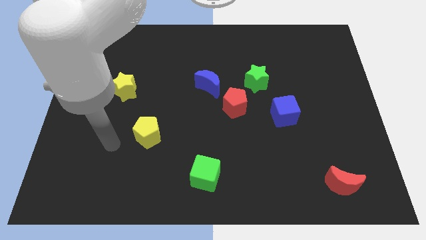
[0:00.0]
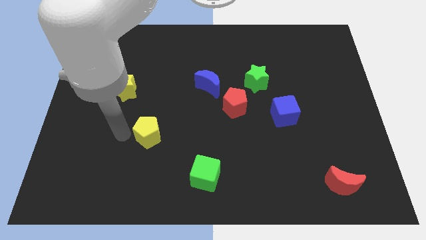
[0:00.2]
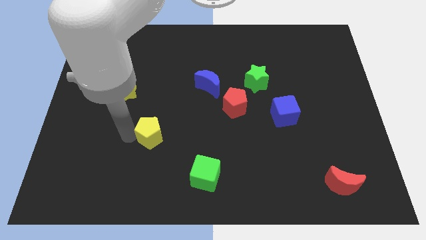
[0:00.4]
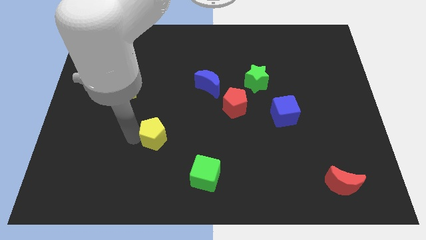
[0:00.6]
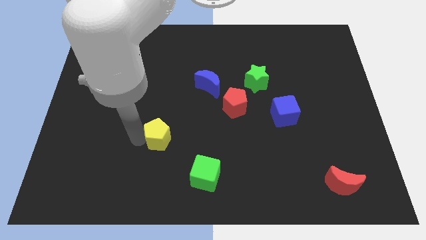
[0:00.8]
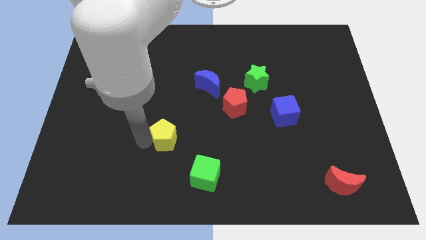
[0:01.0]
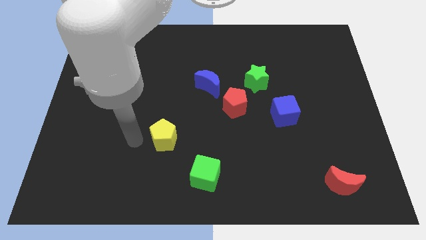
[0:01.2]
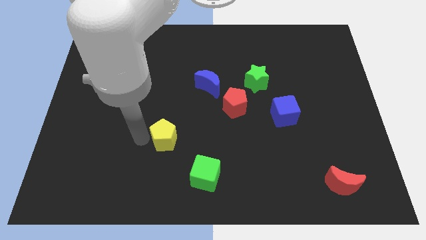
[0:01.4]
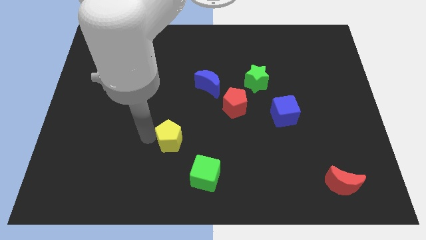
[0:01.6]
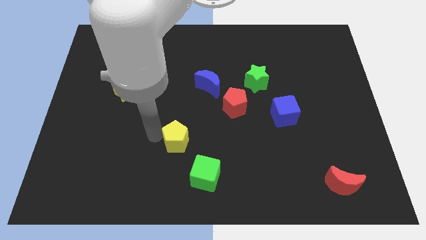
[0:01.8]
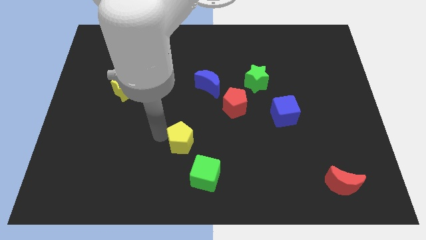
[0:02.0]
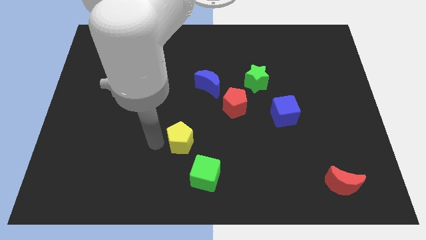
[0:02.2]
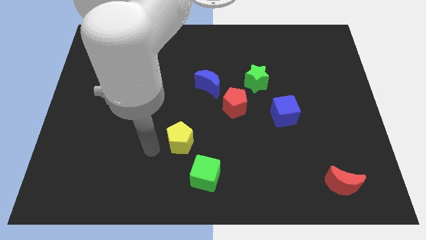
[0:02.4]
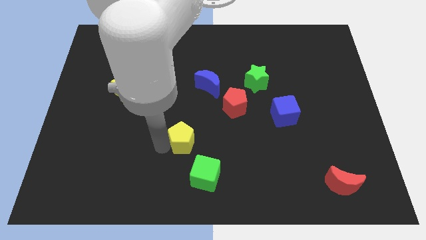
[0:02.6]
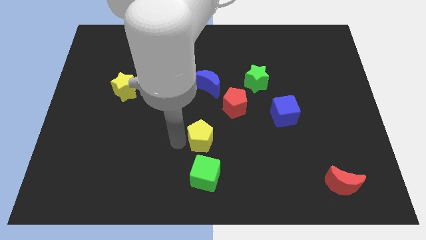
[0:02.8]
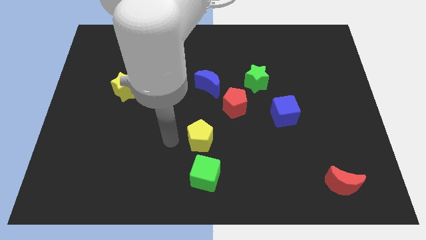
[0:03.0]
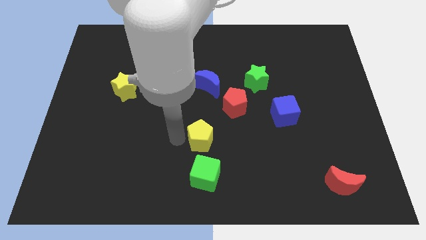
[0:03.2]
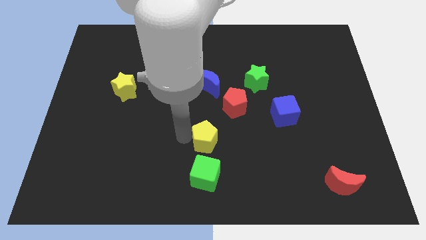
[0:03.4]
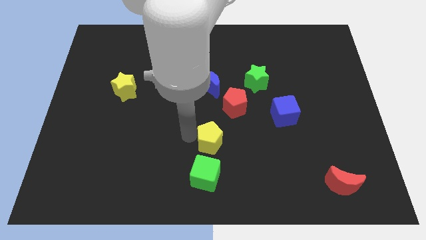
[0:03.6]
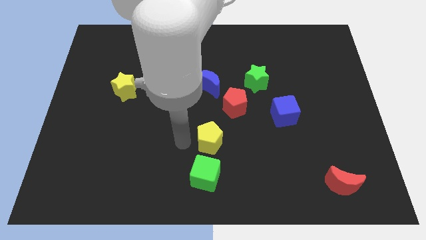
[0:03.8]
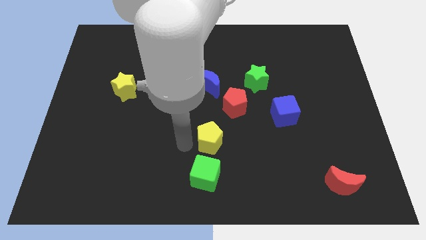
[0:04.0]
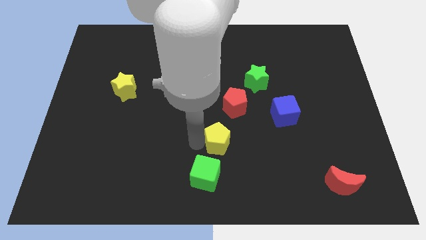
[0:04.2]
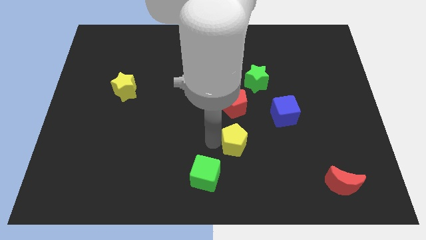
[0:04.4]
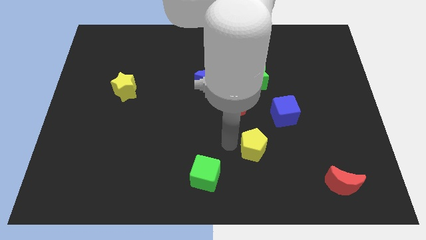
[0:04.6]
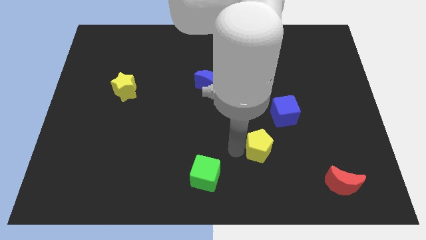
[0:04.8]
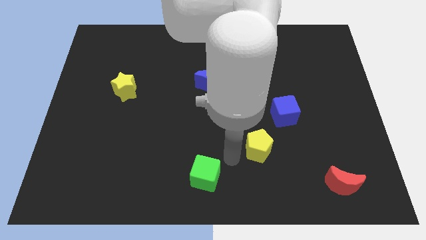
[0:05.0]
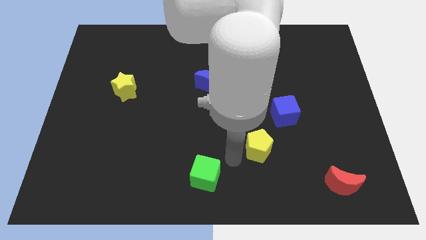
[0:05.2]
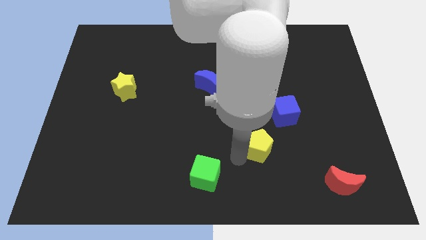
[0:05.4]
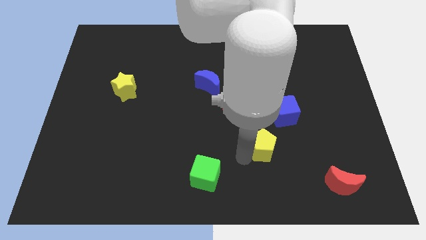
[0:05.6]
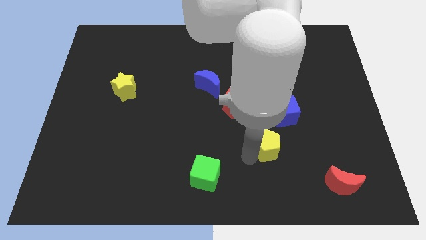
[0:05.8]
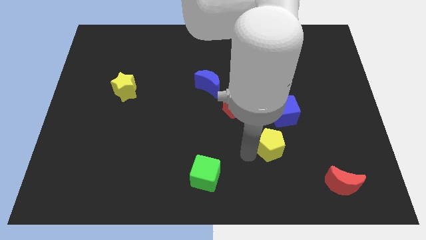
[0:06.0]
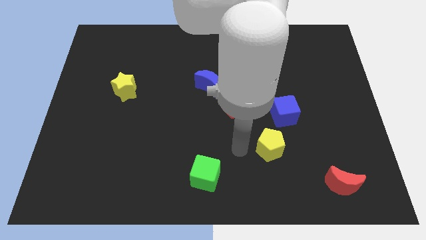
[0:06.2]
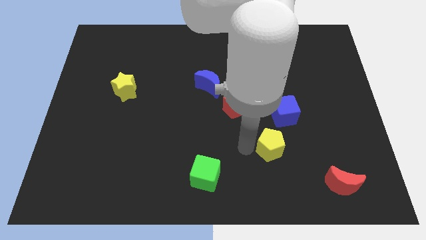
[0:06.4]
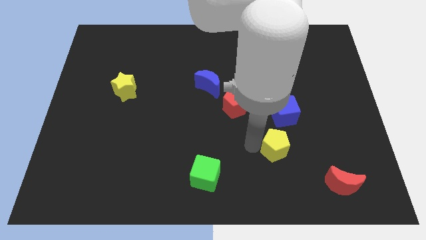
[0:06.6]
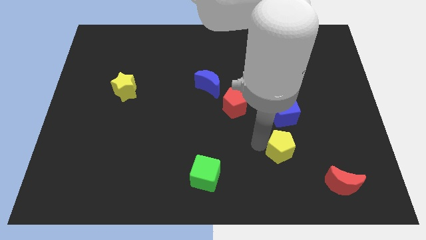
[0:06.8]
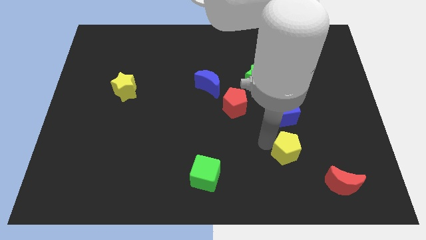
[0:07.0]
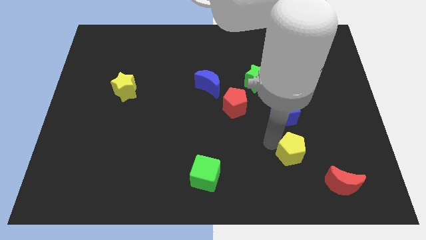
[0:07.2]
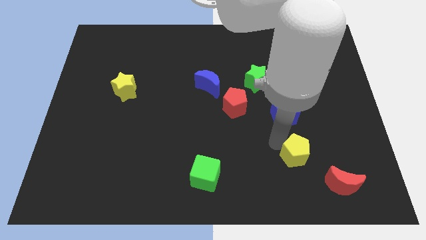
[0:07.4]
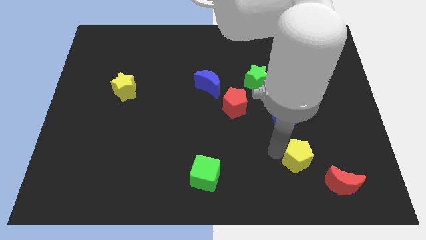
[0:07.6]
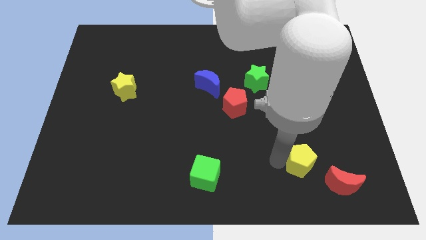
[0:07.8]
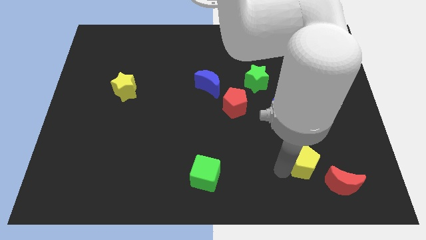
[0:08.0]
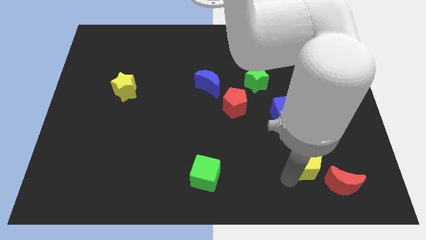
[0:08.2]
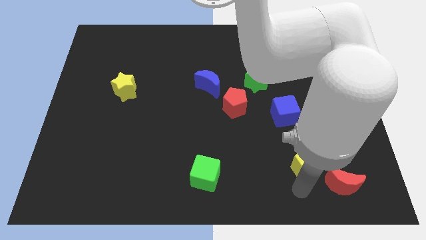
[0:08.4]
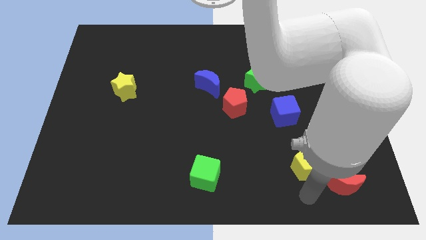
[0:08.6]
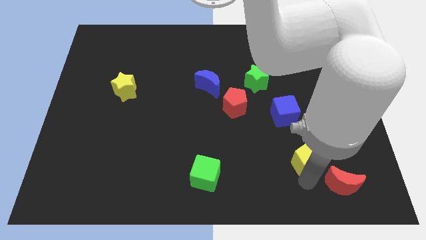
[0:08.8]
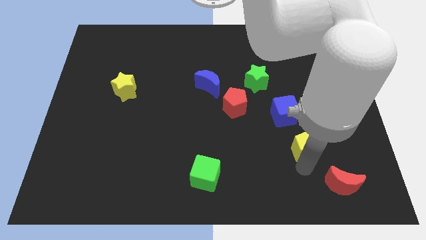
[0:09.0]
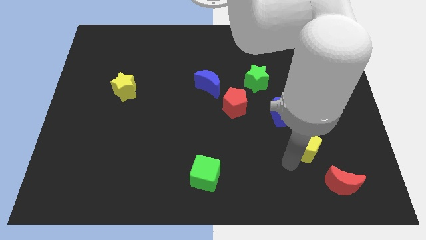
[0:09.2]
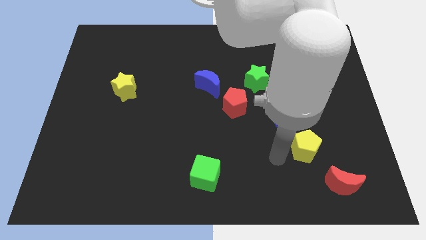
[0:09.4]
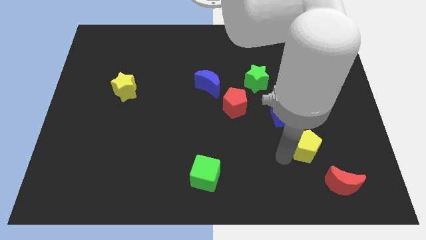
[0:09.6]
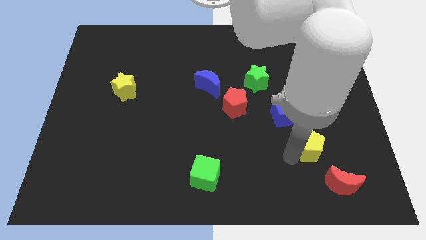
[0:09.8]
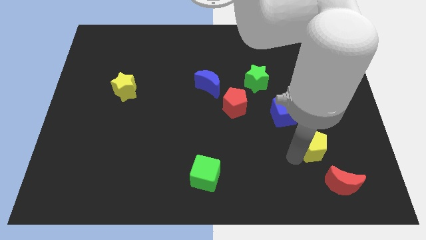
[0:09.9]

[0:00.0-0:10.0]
put the yellow pentagon above the red moon
